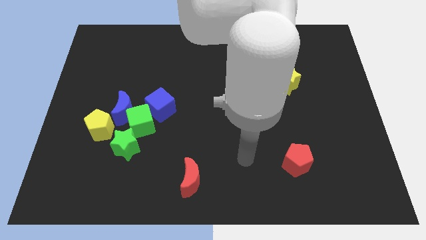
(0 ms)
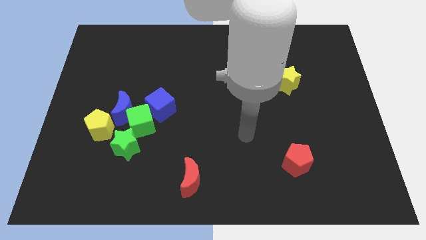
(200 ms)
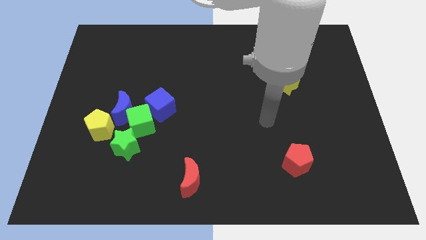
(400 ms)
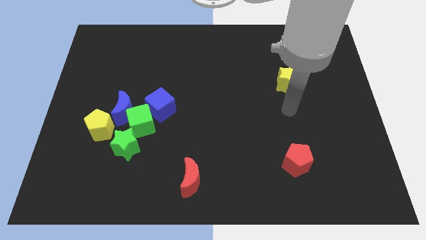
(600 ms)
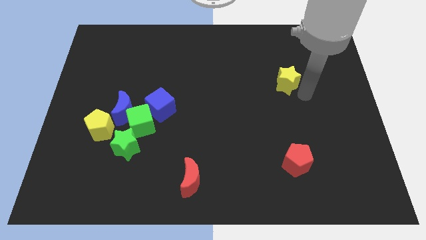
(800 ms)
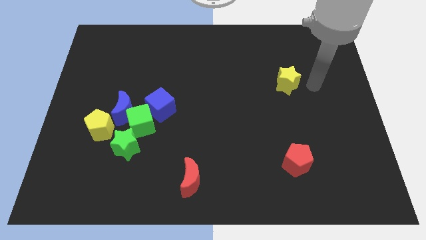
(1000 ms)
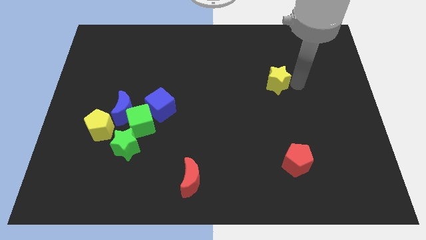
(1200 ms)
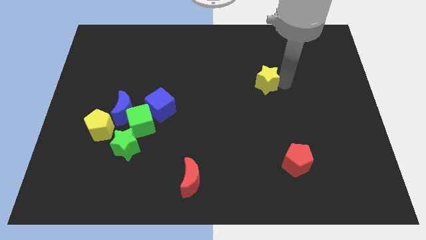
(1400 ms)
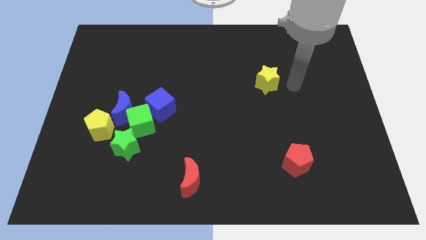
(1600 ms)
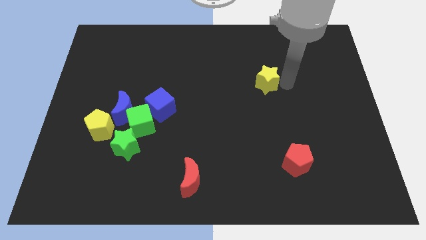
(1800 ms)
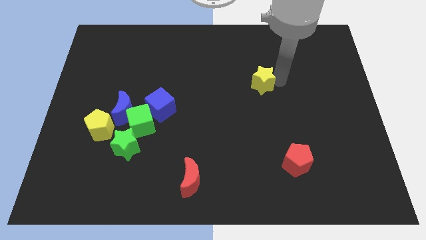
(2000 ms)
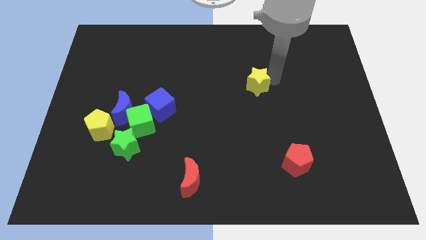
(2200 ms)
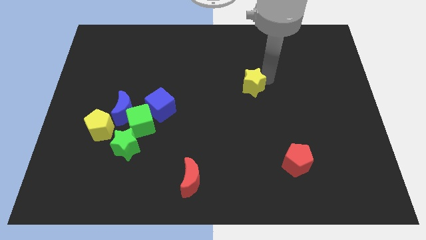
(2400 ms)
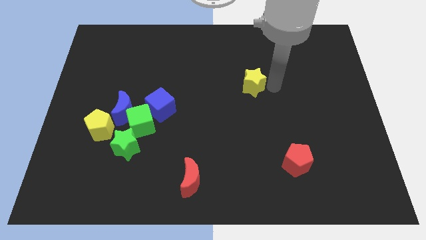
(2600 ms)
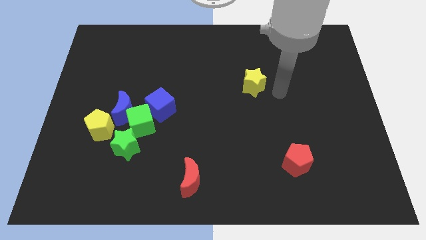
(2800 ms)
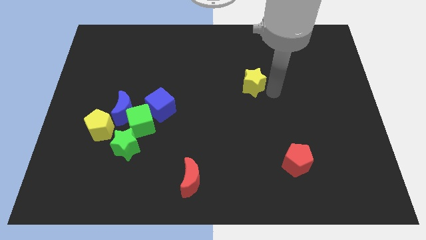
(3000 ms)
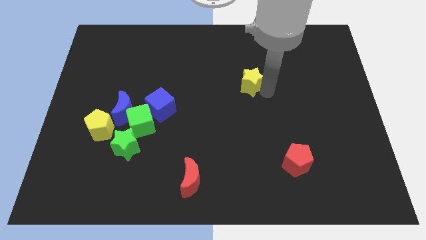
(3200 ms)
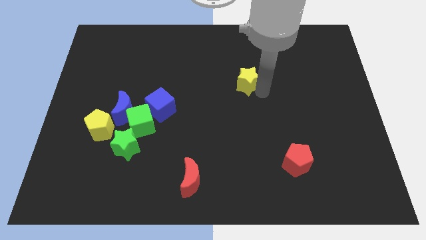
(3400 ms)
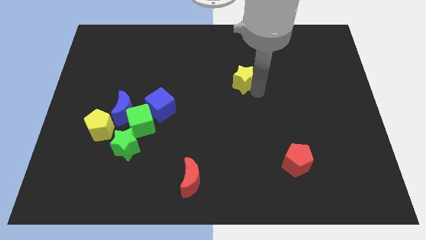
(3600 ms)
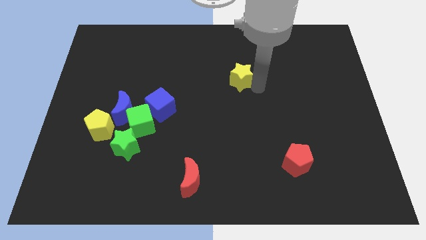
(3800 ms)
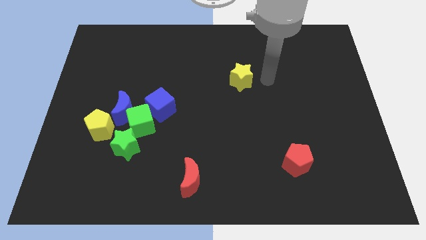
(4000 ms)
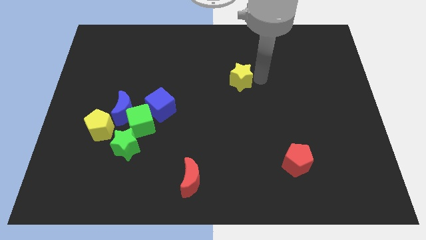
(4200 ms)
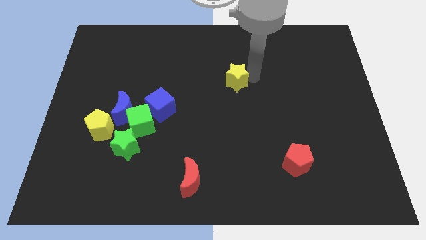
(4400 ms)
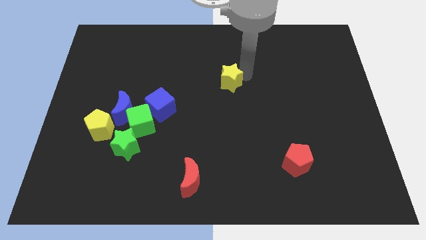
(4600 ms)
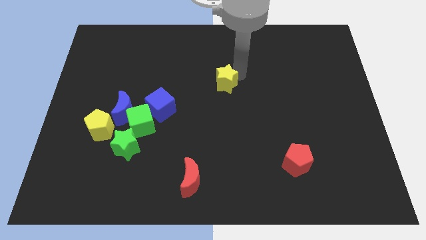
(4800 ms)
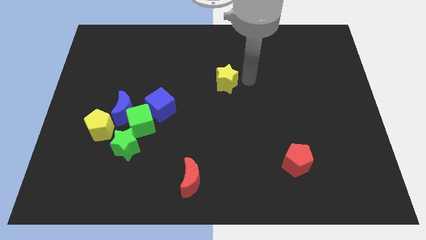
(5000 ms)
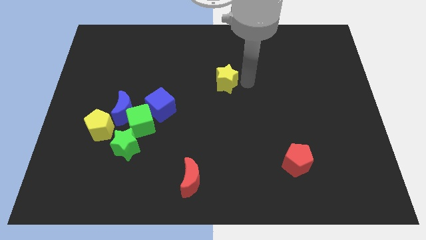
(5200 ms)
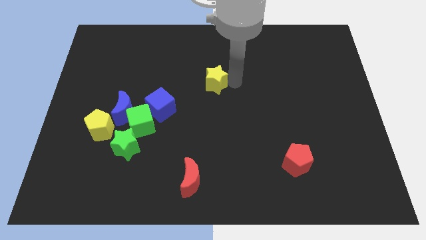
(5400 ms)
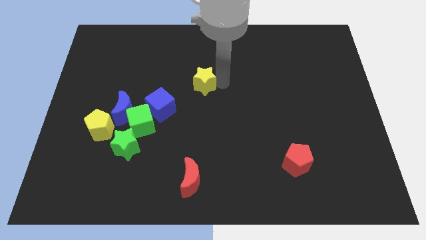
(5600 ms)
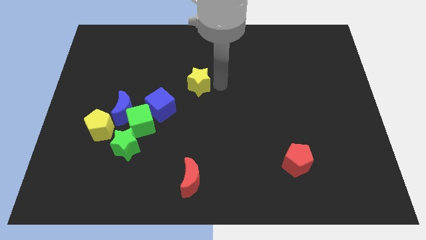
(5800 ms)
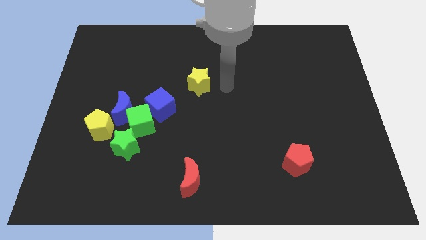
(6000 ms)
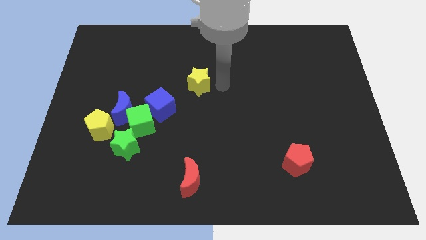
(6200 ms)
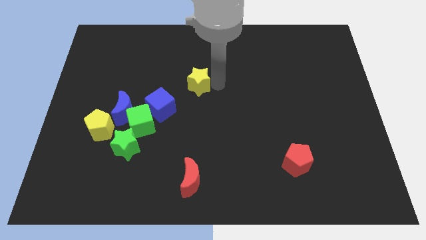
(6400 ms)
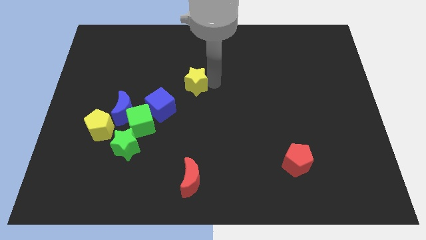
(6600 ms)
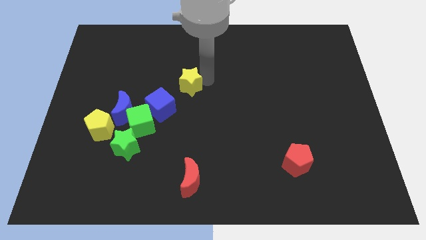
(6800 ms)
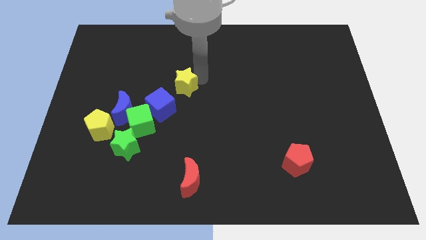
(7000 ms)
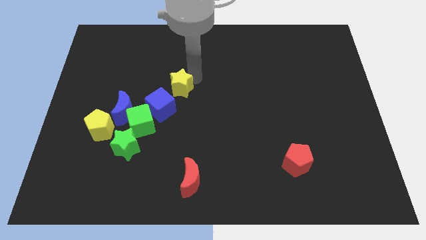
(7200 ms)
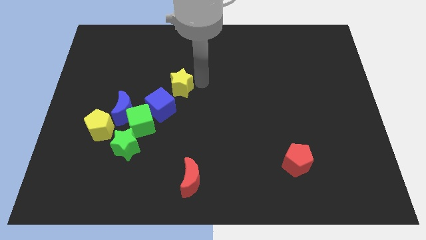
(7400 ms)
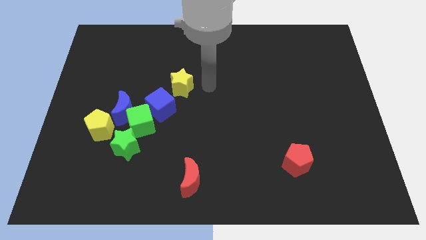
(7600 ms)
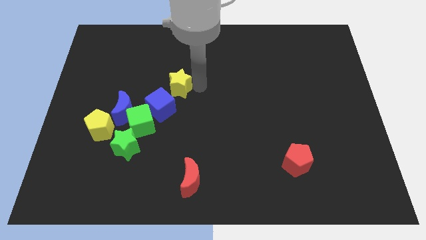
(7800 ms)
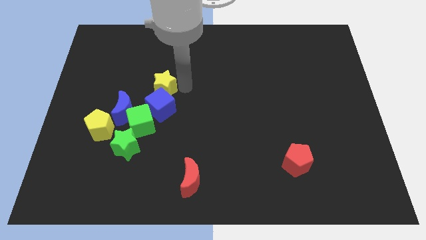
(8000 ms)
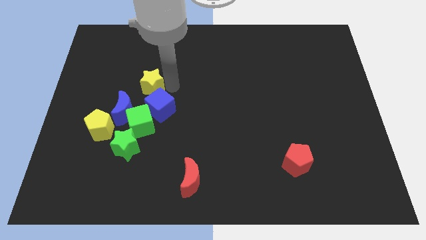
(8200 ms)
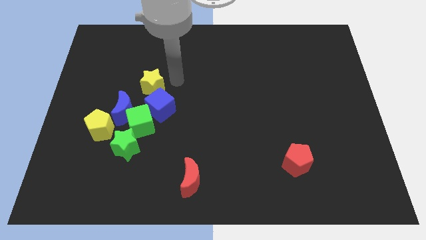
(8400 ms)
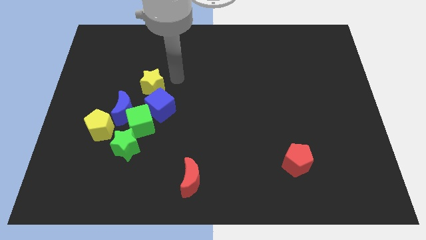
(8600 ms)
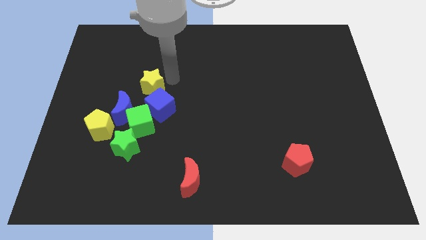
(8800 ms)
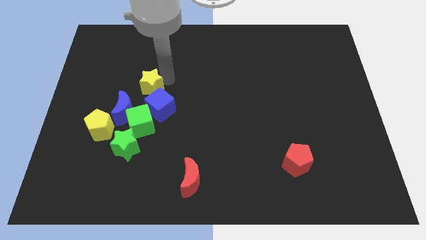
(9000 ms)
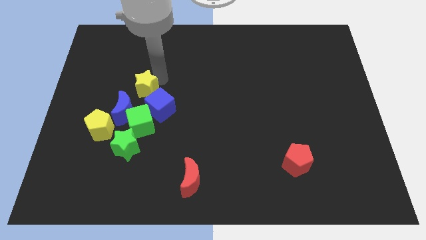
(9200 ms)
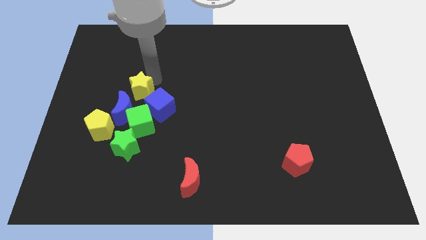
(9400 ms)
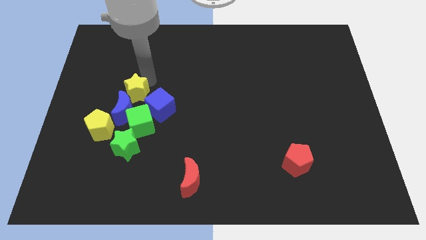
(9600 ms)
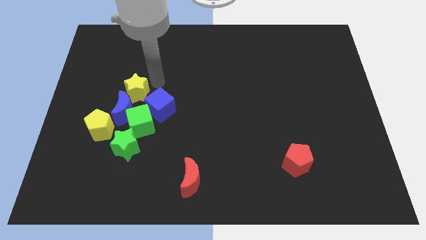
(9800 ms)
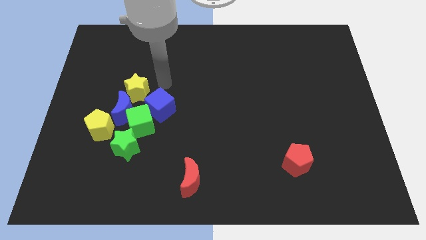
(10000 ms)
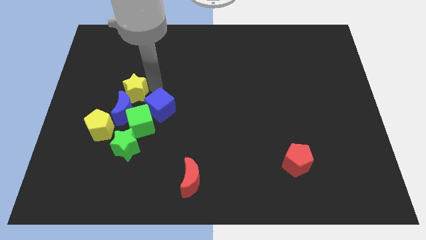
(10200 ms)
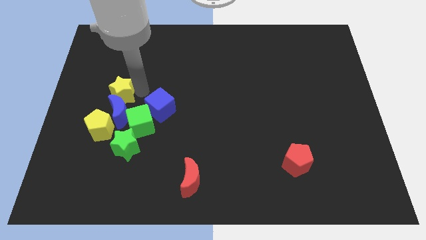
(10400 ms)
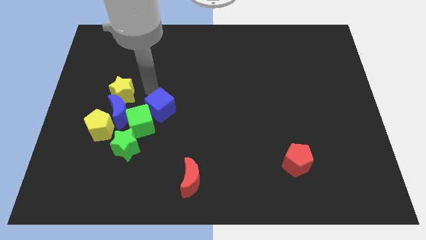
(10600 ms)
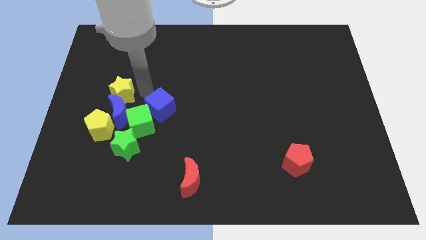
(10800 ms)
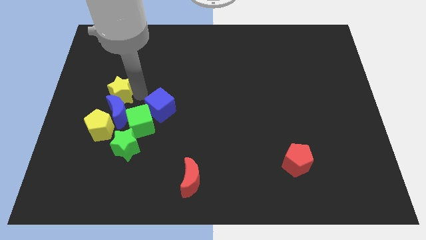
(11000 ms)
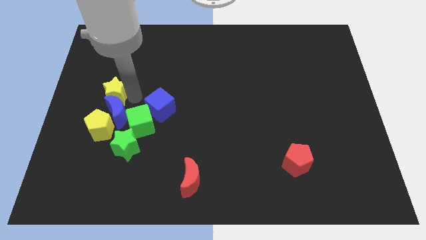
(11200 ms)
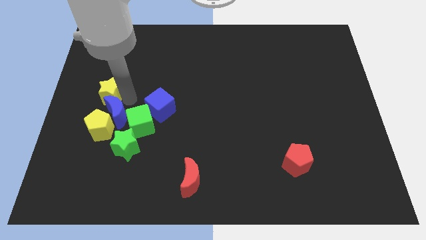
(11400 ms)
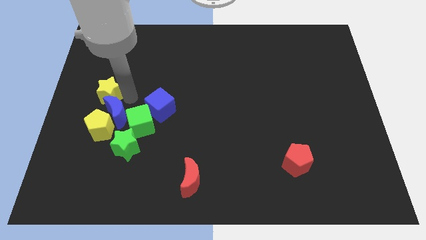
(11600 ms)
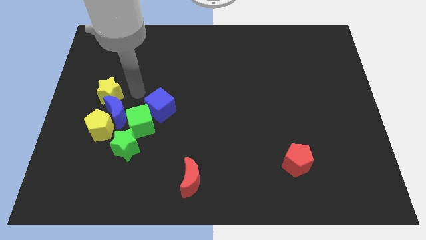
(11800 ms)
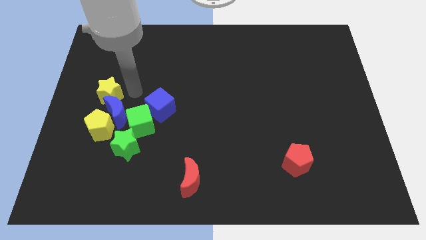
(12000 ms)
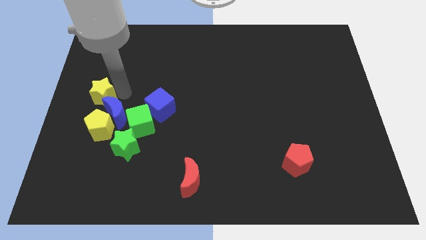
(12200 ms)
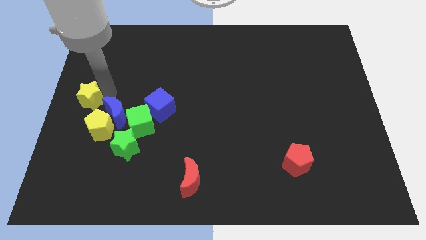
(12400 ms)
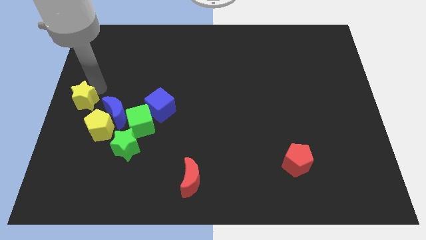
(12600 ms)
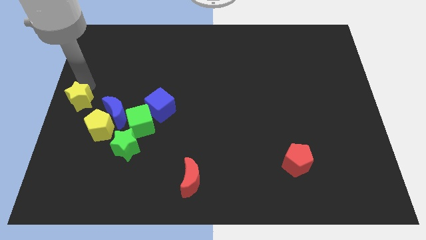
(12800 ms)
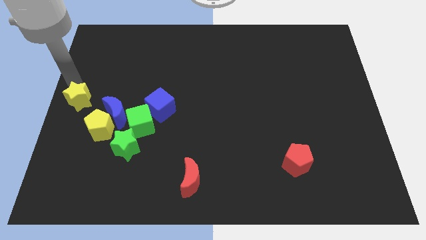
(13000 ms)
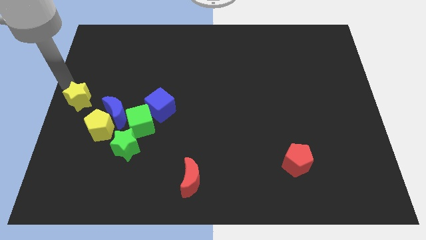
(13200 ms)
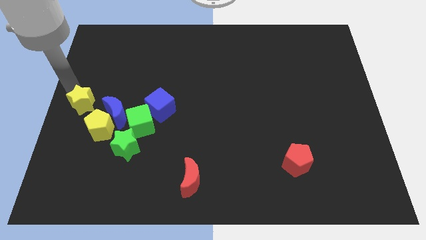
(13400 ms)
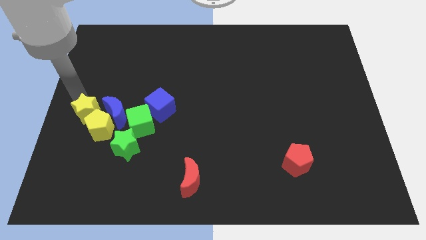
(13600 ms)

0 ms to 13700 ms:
slide the yellow star next to the yellow pentagon

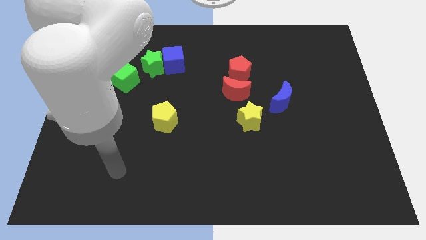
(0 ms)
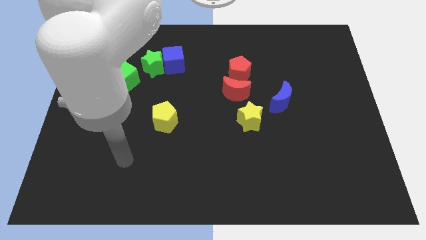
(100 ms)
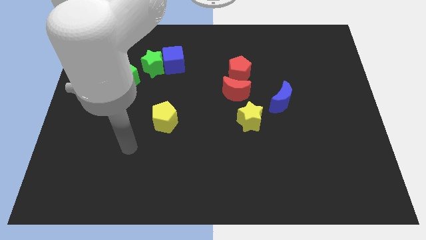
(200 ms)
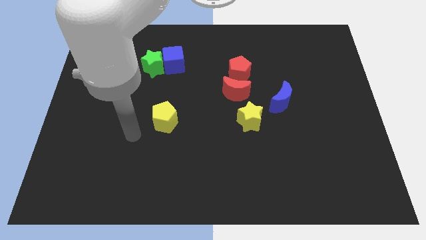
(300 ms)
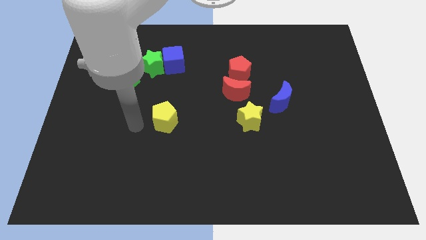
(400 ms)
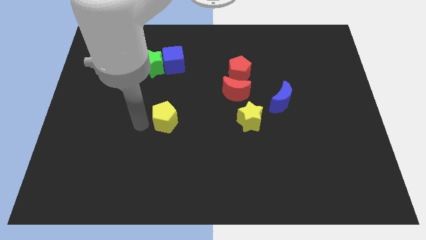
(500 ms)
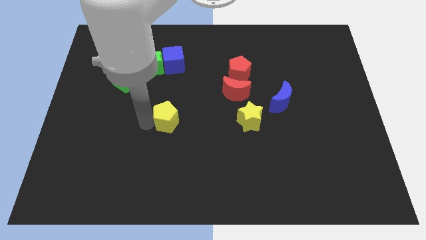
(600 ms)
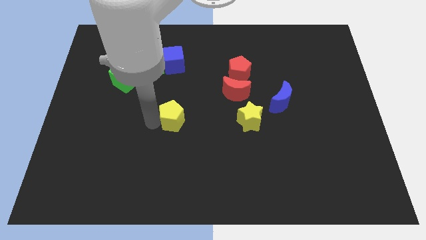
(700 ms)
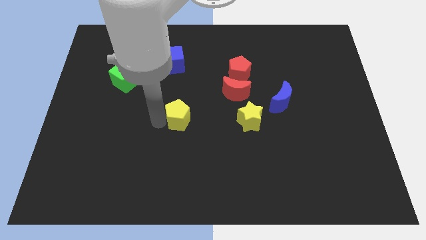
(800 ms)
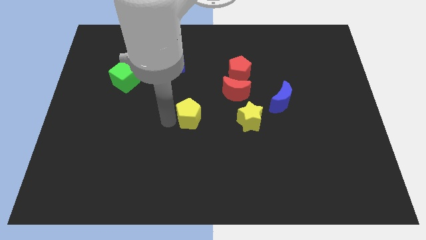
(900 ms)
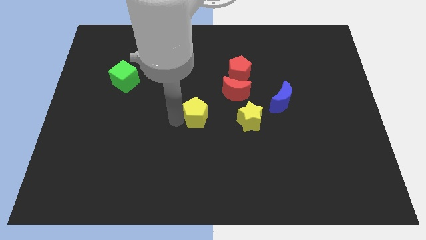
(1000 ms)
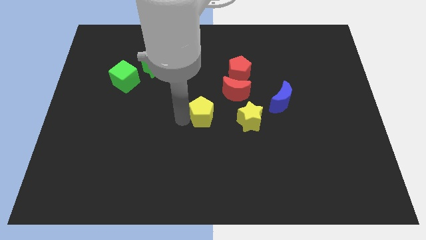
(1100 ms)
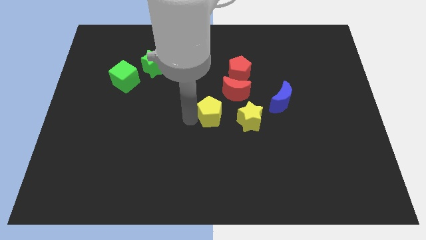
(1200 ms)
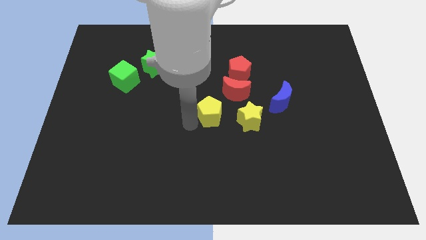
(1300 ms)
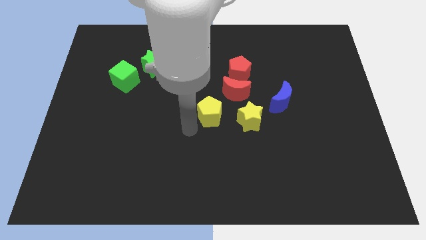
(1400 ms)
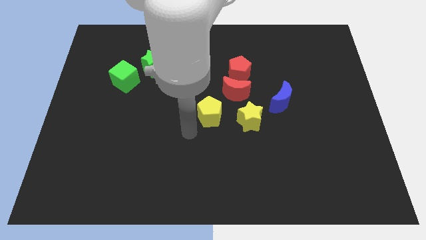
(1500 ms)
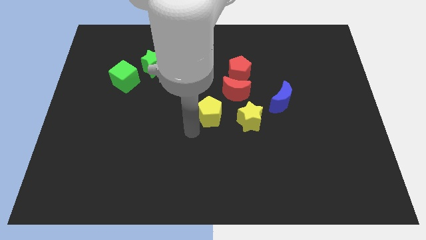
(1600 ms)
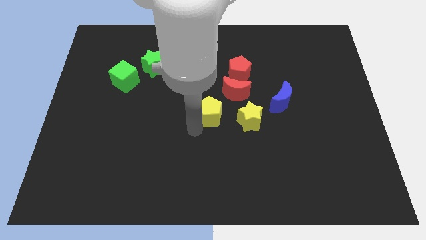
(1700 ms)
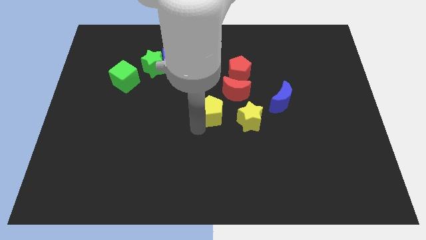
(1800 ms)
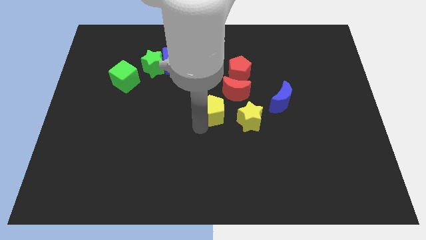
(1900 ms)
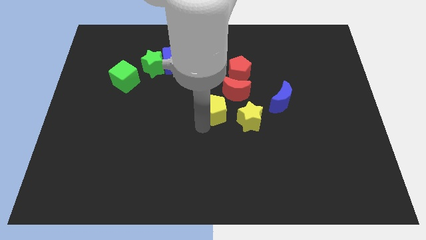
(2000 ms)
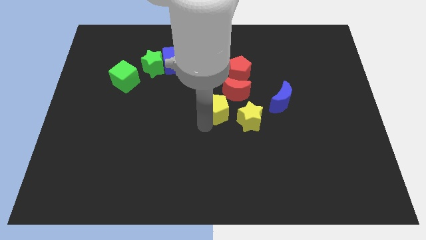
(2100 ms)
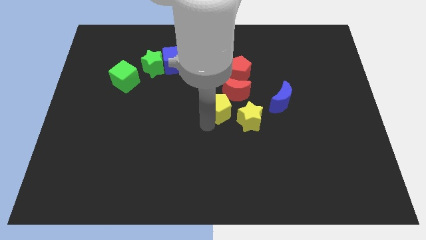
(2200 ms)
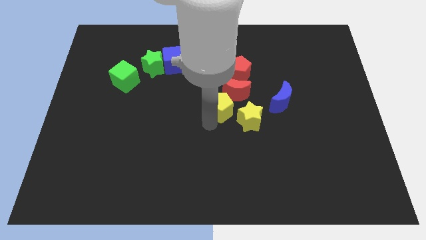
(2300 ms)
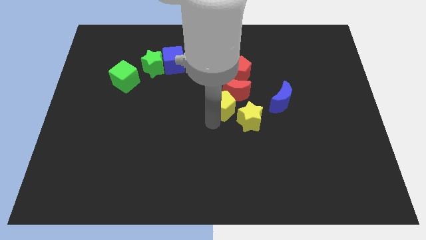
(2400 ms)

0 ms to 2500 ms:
push the yellow pentagon towards the red moon
